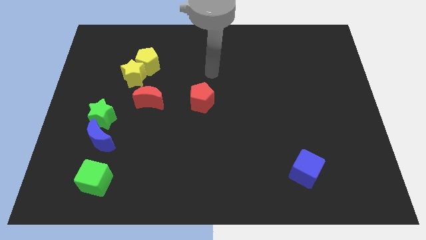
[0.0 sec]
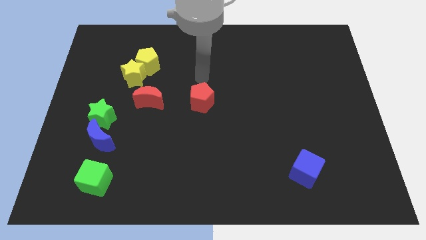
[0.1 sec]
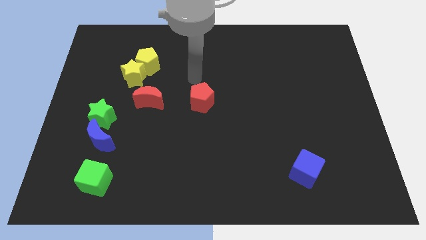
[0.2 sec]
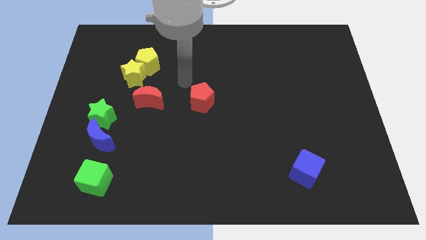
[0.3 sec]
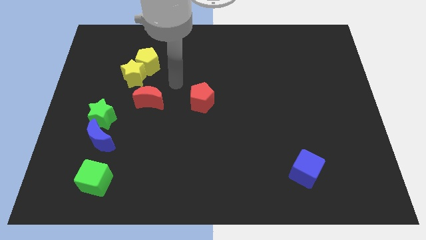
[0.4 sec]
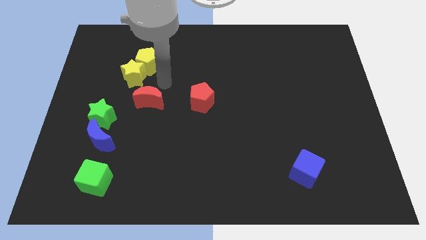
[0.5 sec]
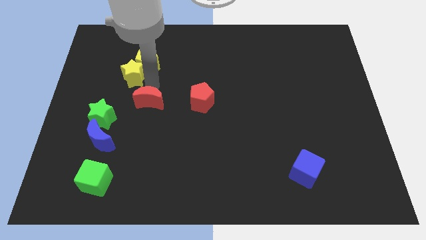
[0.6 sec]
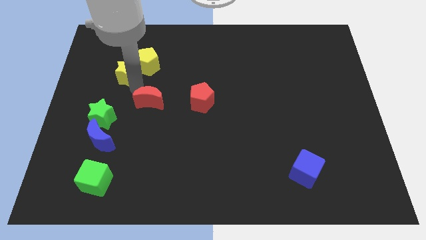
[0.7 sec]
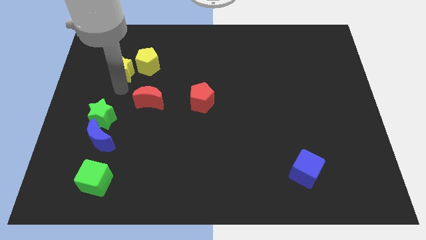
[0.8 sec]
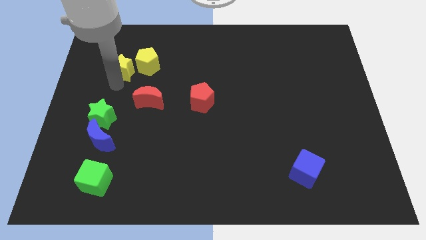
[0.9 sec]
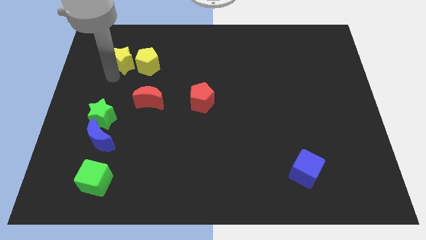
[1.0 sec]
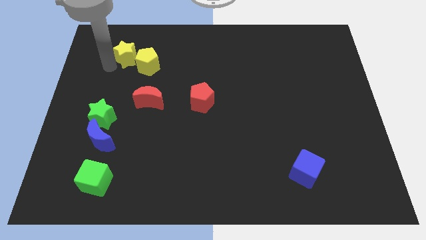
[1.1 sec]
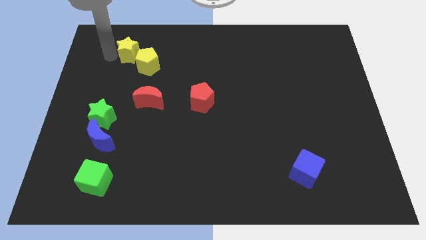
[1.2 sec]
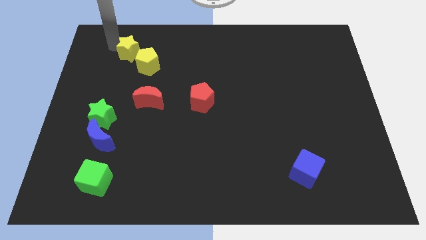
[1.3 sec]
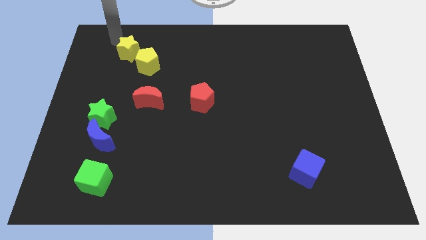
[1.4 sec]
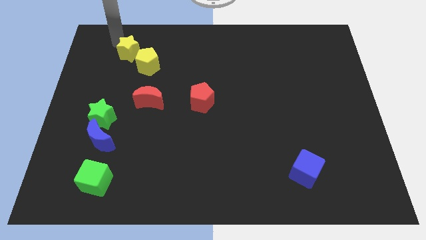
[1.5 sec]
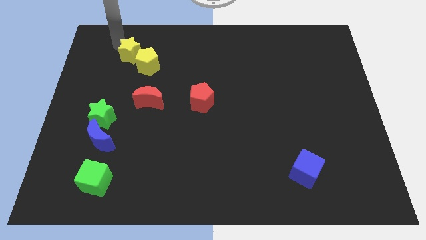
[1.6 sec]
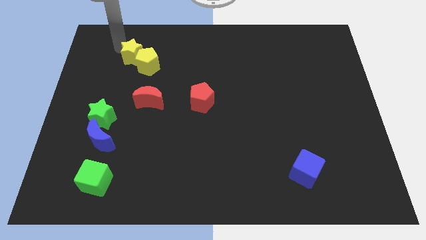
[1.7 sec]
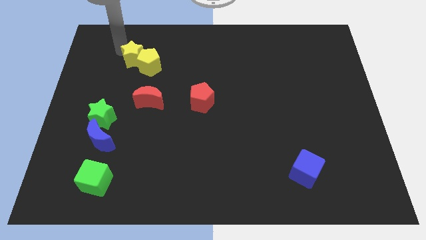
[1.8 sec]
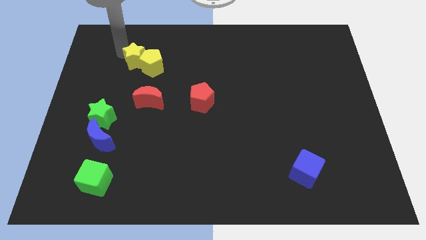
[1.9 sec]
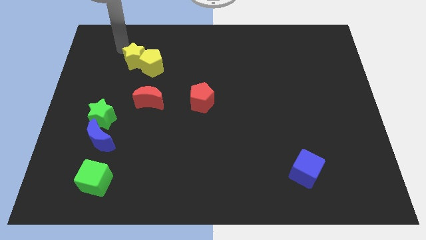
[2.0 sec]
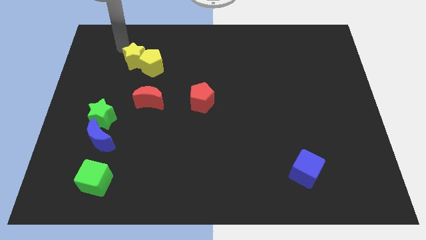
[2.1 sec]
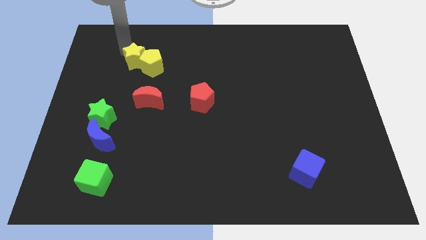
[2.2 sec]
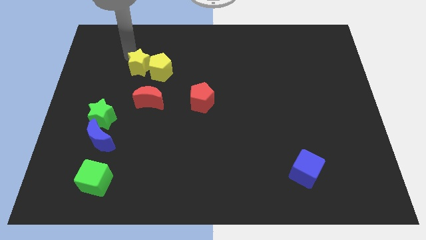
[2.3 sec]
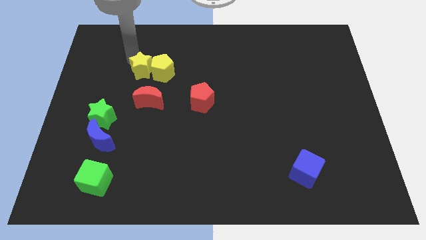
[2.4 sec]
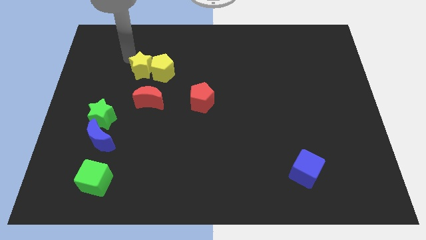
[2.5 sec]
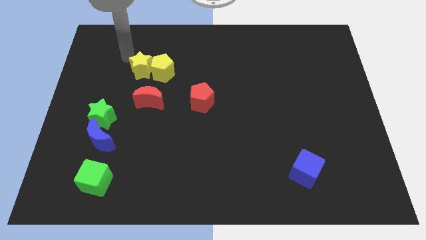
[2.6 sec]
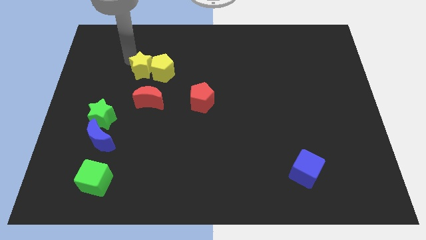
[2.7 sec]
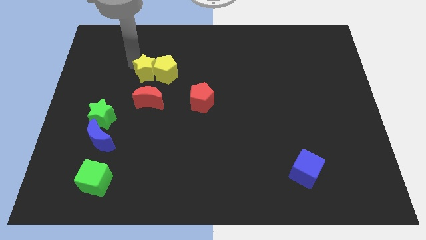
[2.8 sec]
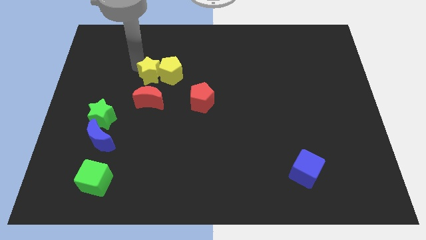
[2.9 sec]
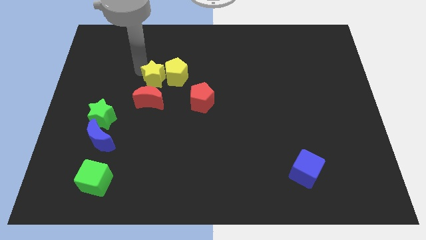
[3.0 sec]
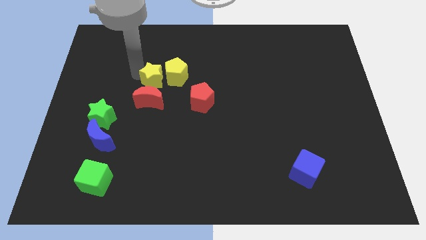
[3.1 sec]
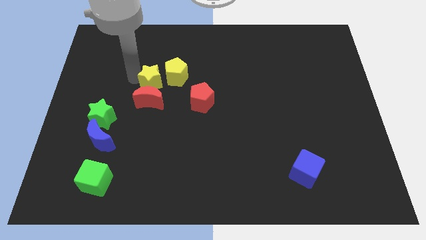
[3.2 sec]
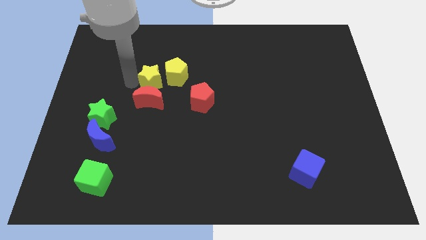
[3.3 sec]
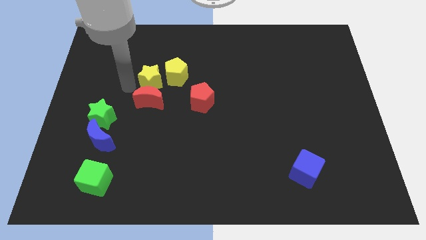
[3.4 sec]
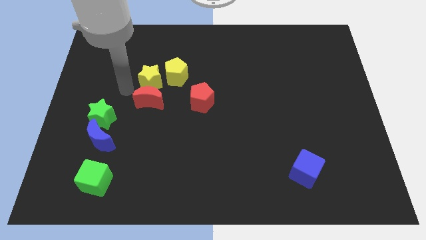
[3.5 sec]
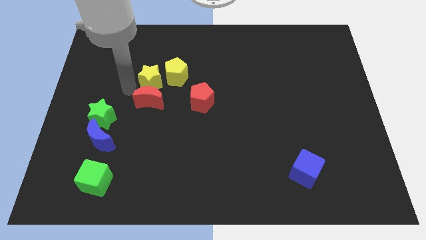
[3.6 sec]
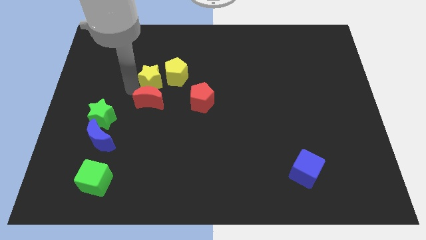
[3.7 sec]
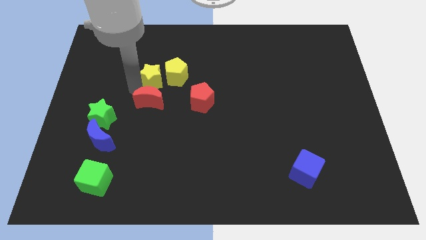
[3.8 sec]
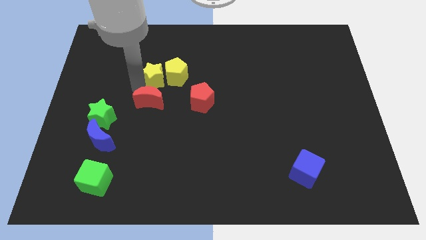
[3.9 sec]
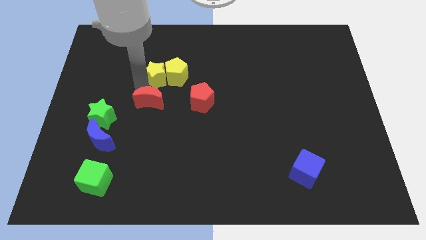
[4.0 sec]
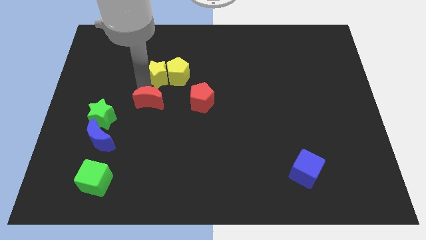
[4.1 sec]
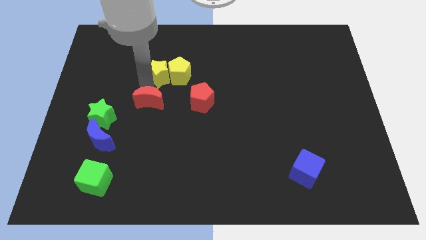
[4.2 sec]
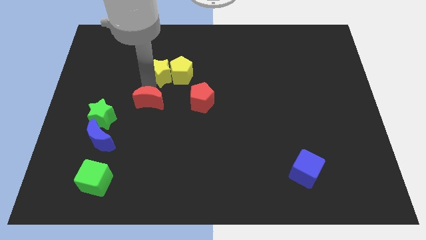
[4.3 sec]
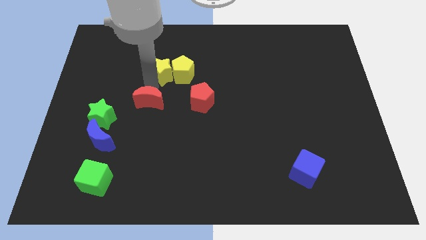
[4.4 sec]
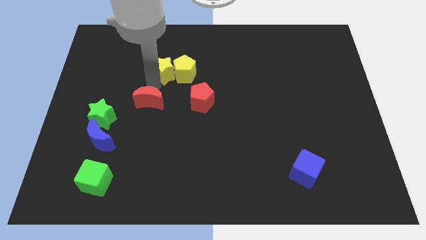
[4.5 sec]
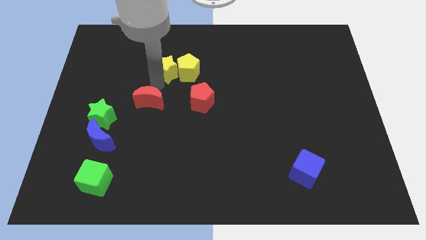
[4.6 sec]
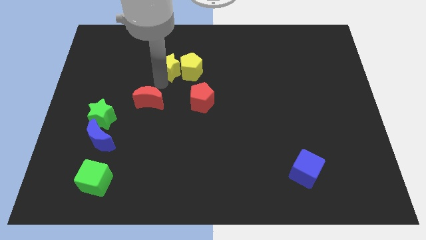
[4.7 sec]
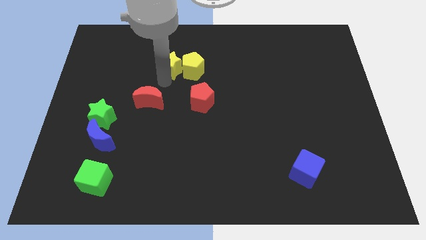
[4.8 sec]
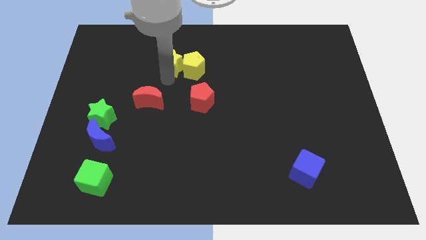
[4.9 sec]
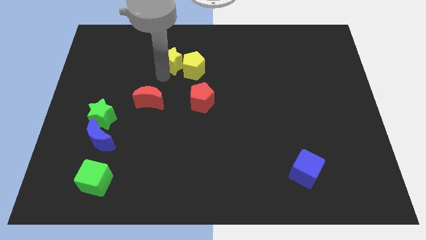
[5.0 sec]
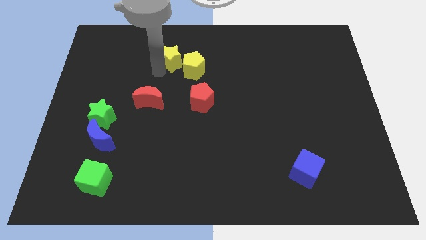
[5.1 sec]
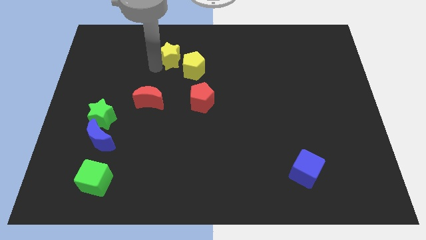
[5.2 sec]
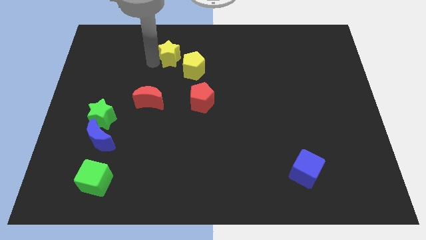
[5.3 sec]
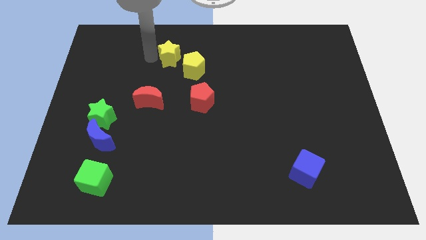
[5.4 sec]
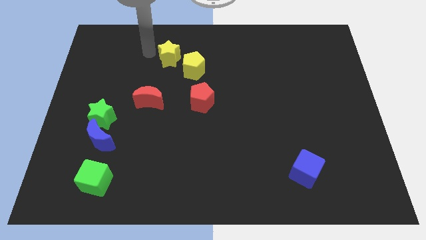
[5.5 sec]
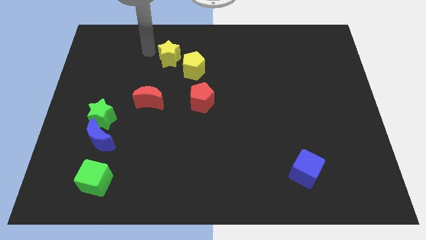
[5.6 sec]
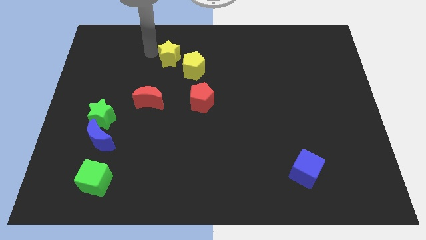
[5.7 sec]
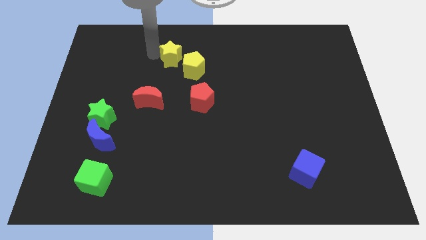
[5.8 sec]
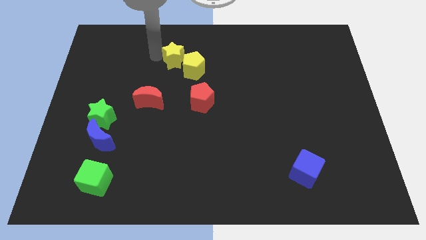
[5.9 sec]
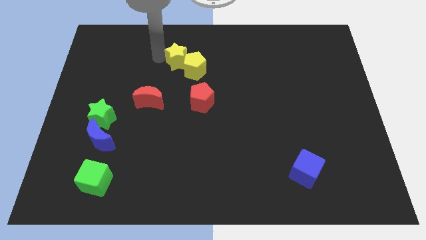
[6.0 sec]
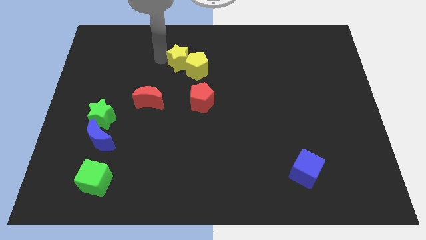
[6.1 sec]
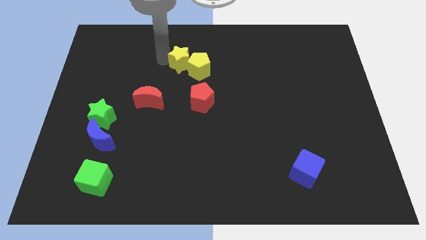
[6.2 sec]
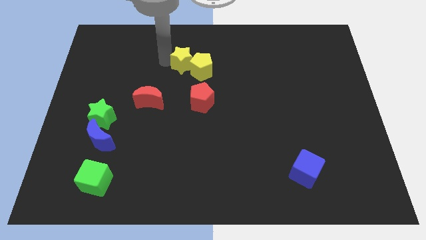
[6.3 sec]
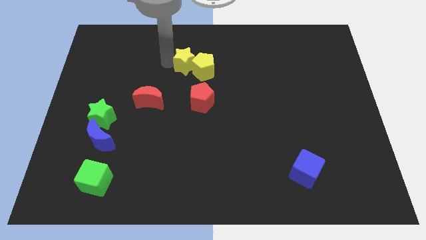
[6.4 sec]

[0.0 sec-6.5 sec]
put the yellow star to the top side of the red pentagon

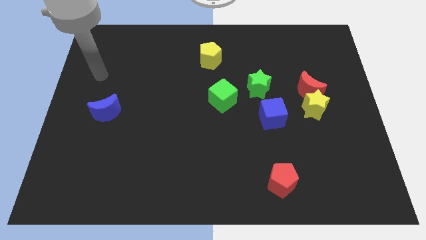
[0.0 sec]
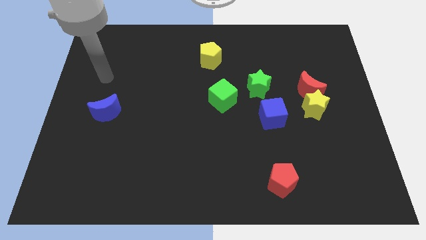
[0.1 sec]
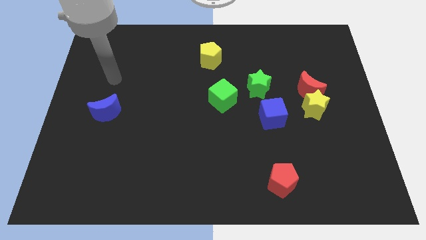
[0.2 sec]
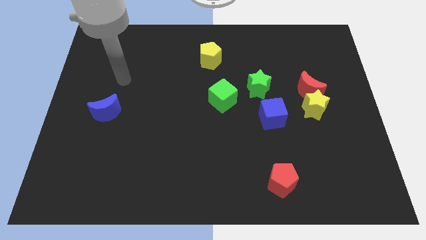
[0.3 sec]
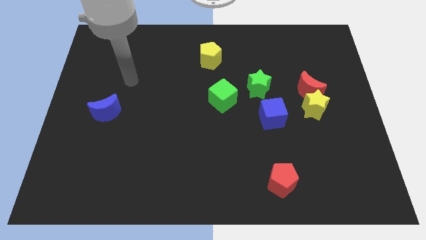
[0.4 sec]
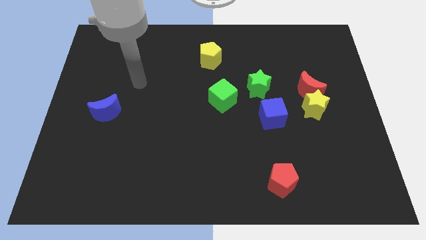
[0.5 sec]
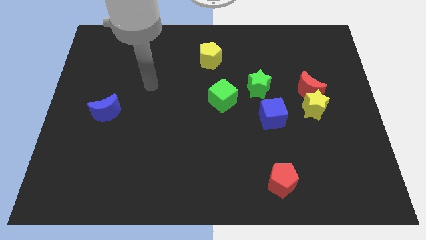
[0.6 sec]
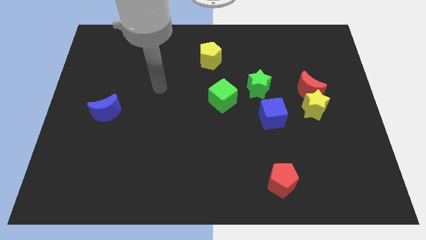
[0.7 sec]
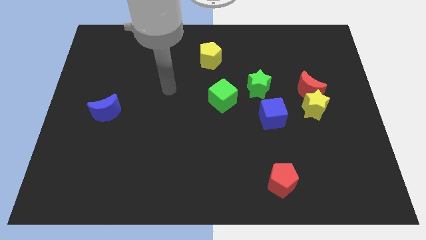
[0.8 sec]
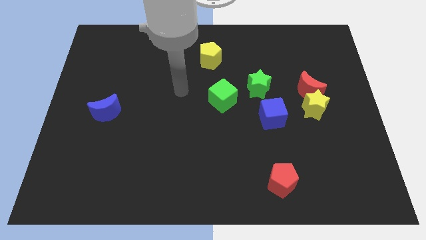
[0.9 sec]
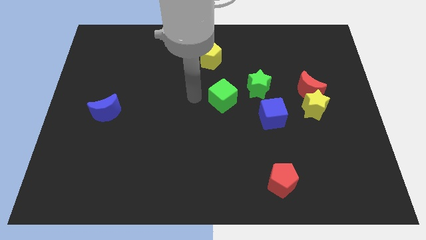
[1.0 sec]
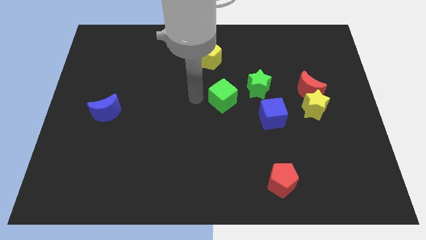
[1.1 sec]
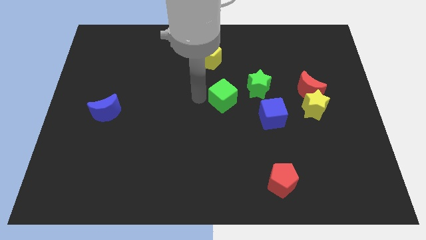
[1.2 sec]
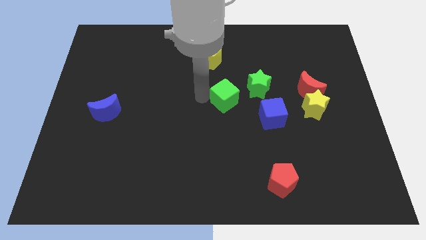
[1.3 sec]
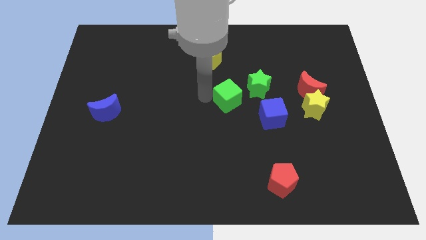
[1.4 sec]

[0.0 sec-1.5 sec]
put the green cube to the top left side of the blue cube
